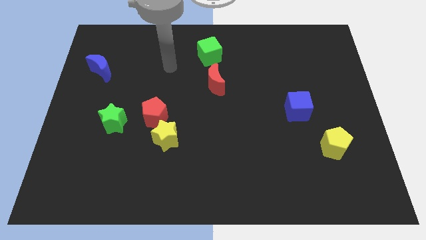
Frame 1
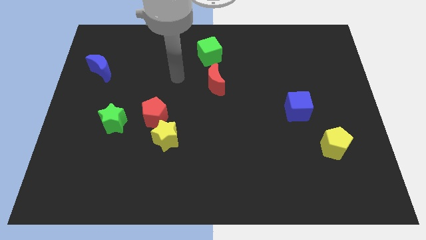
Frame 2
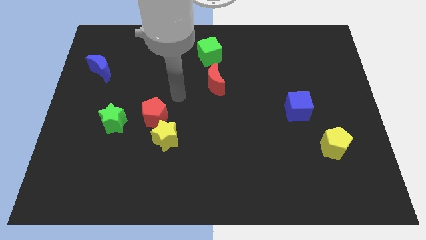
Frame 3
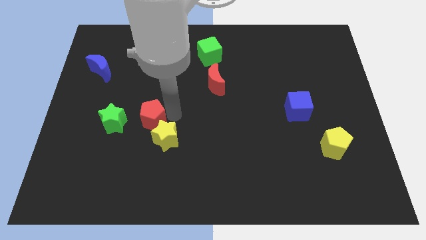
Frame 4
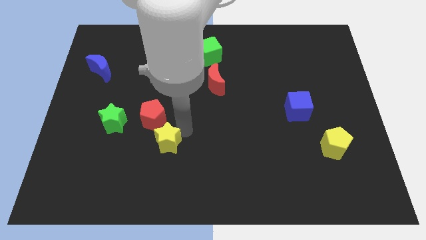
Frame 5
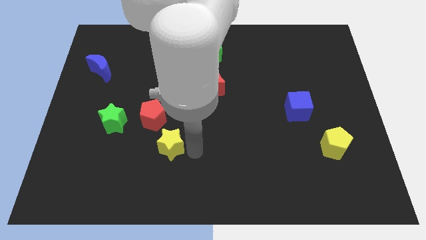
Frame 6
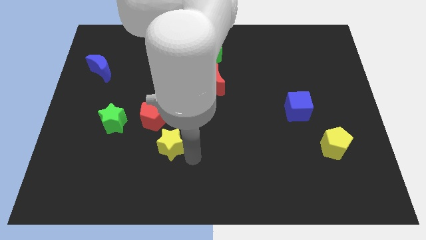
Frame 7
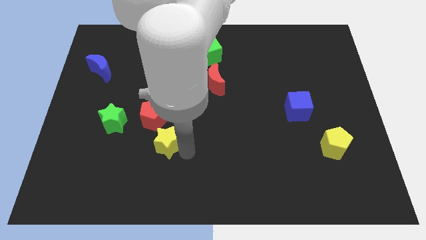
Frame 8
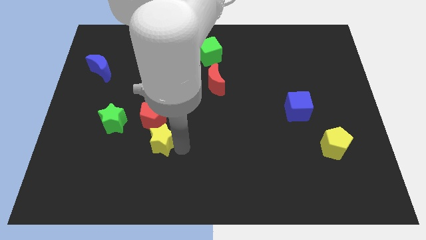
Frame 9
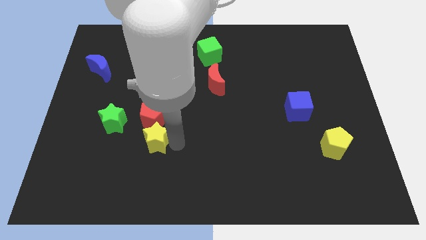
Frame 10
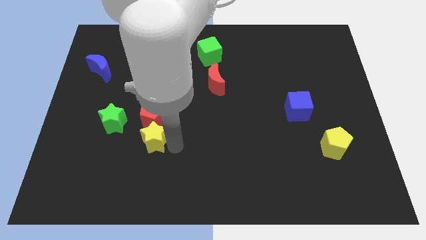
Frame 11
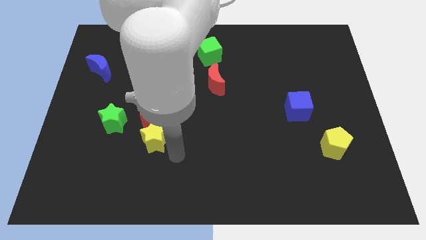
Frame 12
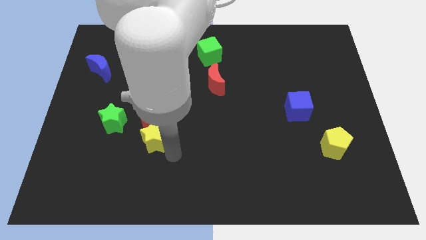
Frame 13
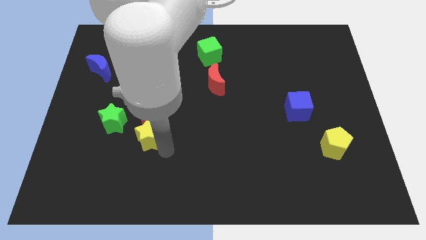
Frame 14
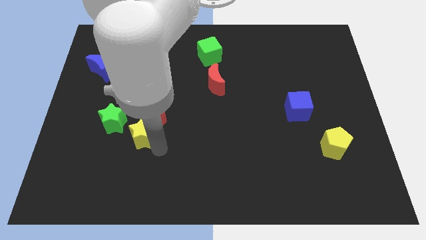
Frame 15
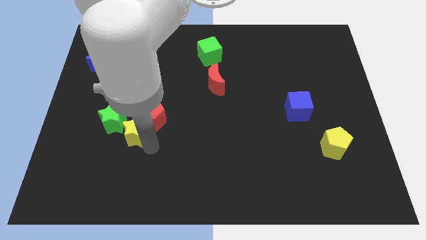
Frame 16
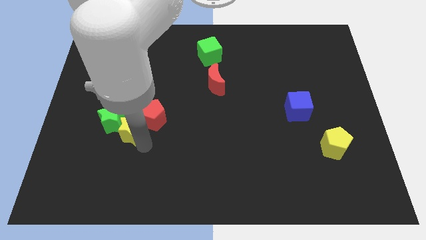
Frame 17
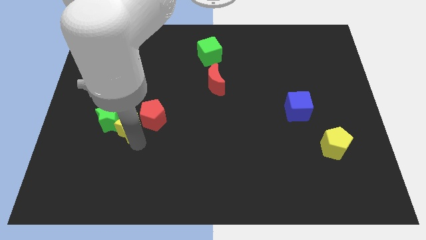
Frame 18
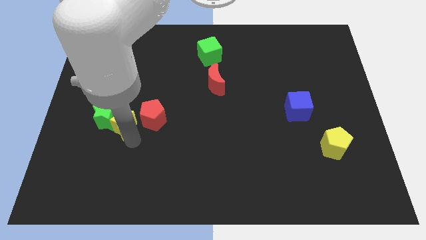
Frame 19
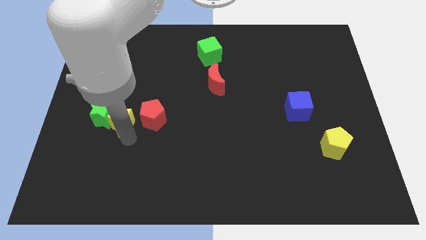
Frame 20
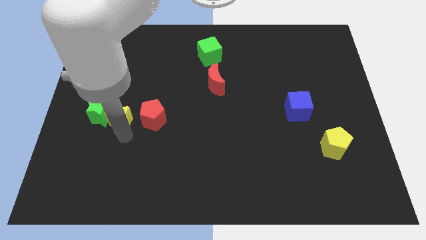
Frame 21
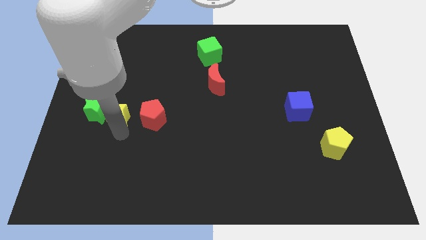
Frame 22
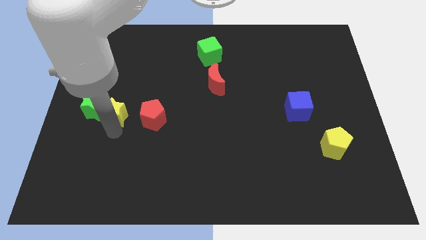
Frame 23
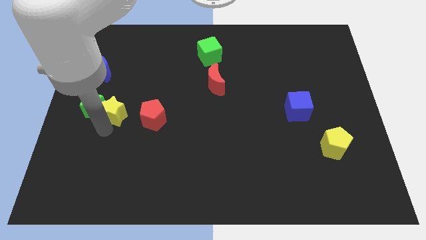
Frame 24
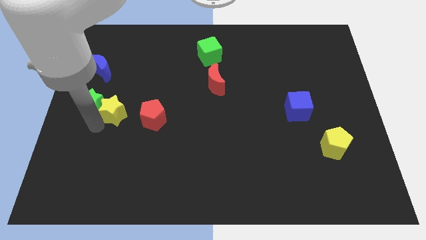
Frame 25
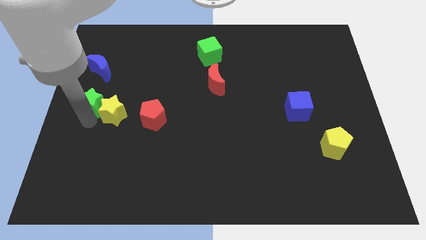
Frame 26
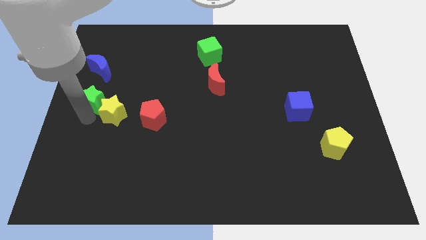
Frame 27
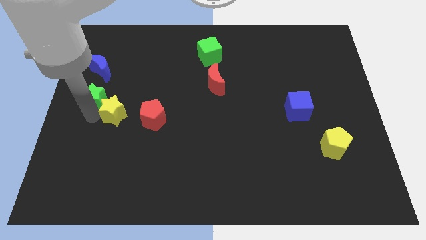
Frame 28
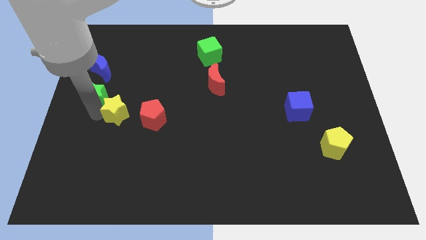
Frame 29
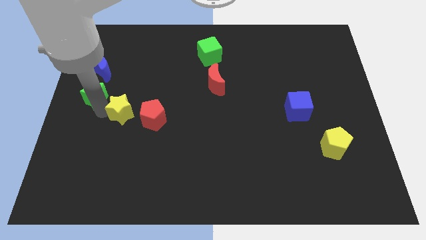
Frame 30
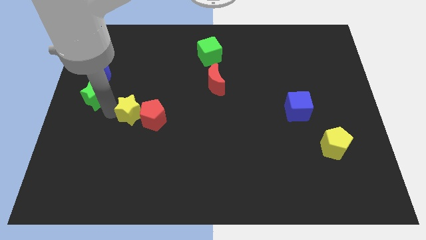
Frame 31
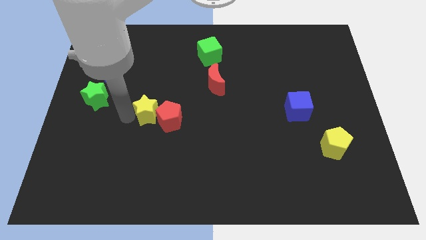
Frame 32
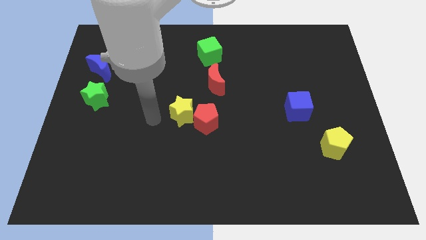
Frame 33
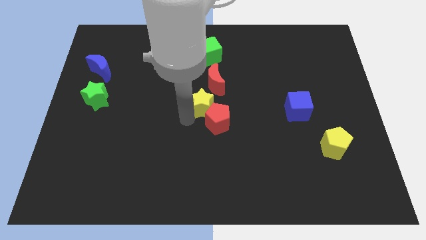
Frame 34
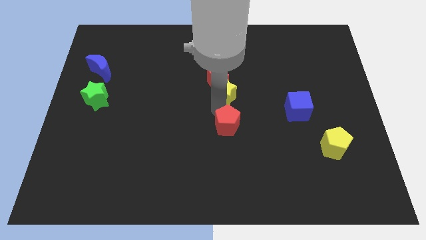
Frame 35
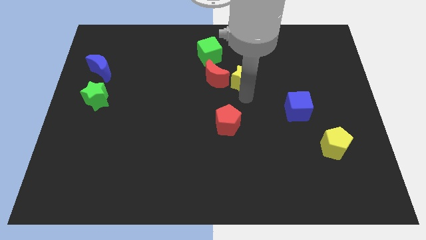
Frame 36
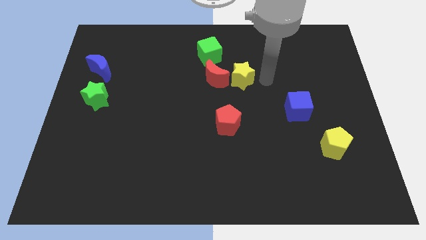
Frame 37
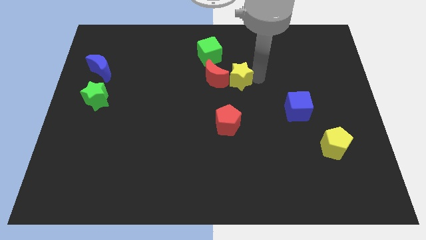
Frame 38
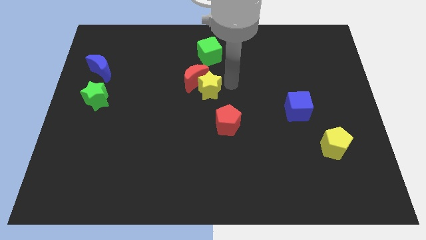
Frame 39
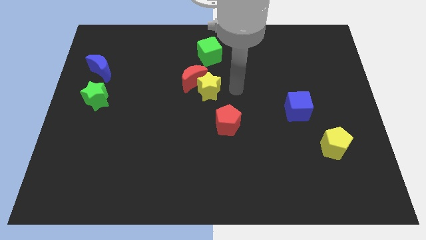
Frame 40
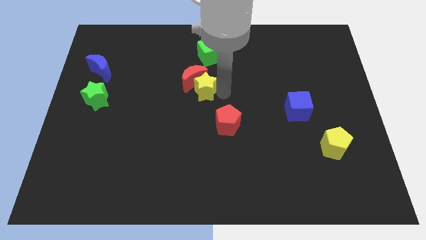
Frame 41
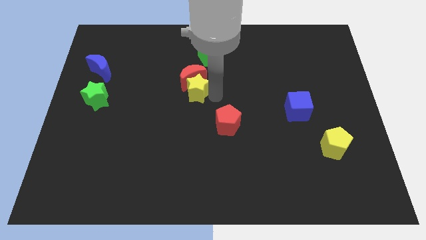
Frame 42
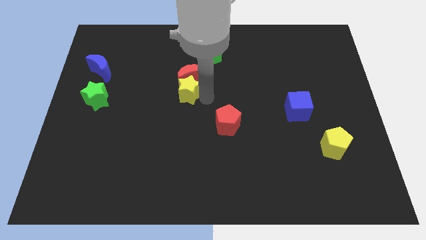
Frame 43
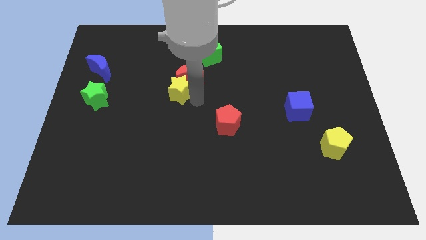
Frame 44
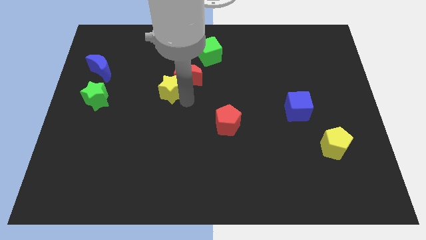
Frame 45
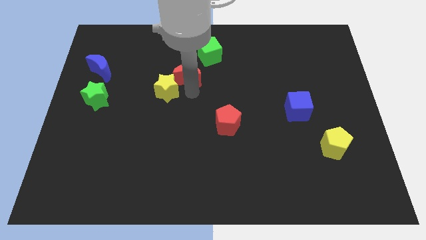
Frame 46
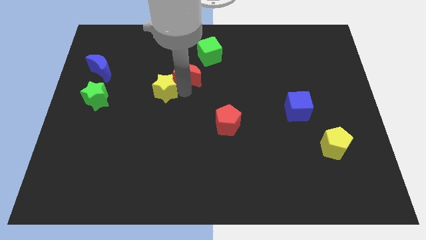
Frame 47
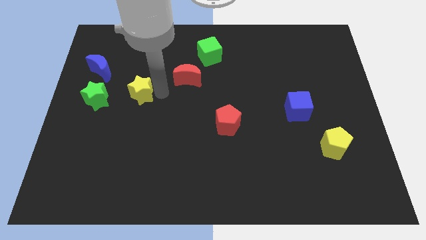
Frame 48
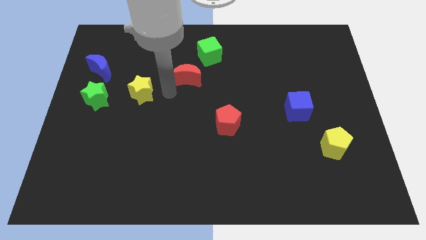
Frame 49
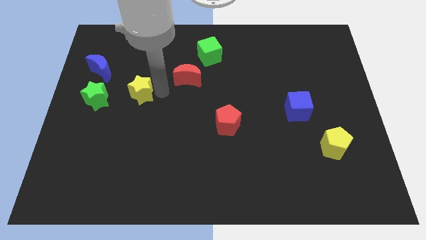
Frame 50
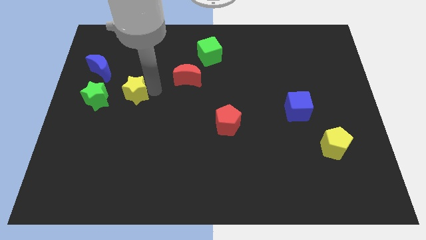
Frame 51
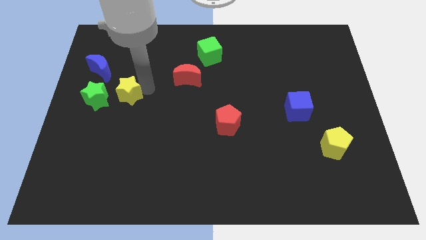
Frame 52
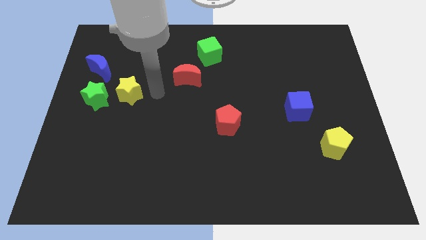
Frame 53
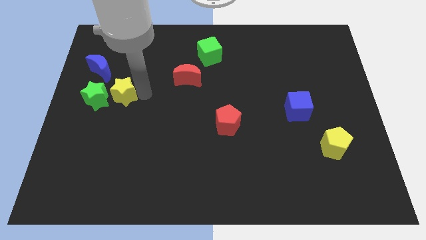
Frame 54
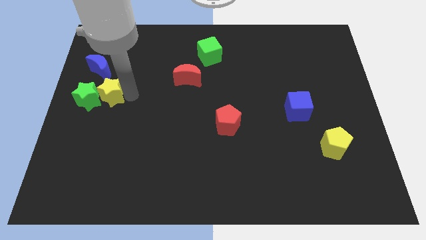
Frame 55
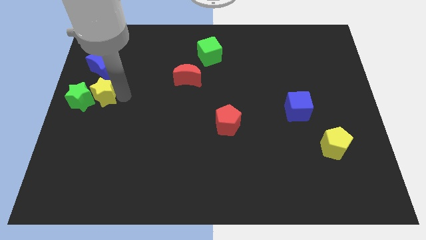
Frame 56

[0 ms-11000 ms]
push the yellow star to the left side
